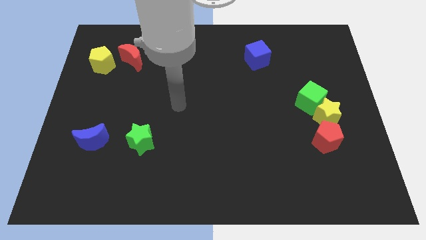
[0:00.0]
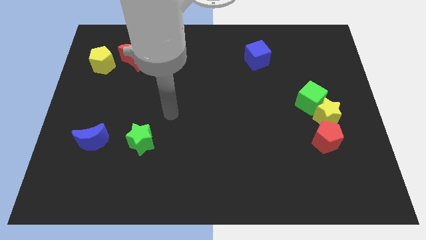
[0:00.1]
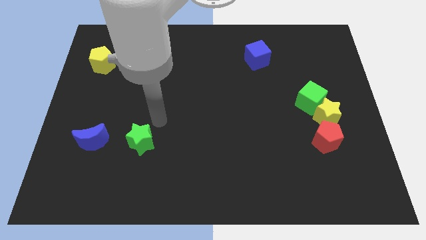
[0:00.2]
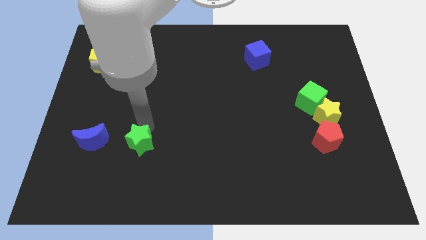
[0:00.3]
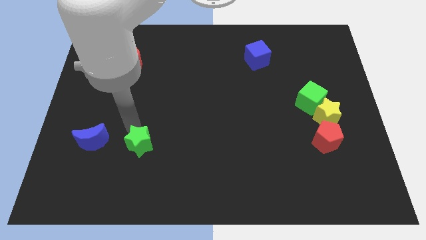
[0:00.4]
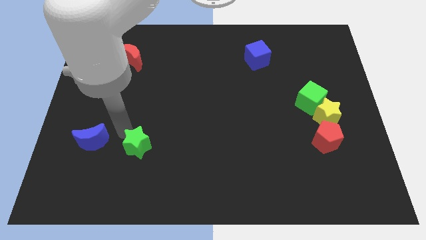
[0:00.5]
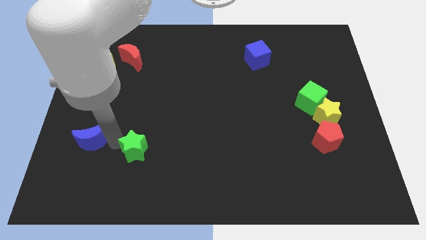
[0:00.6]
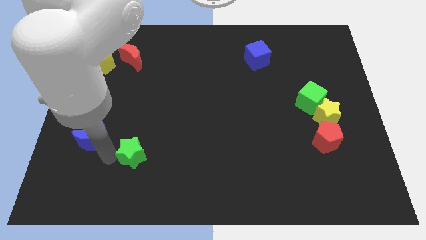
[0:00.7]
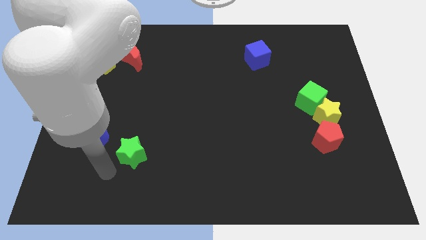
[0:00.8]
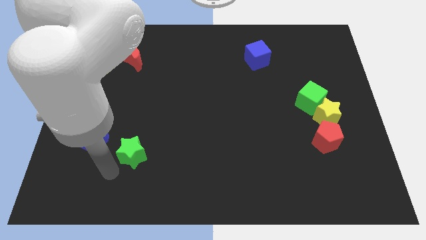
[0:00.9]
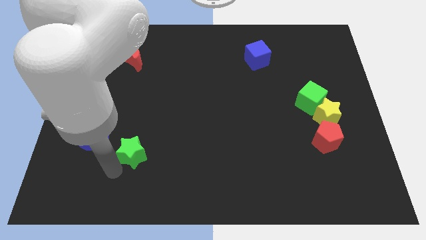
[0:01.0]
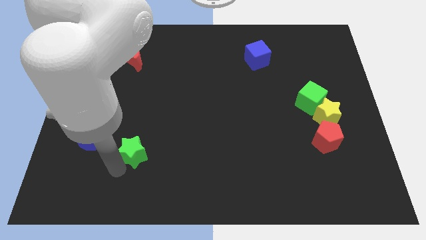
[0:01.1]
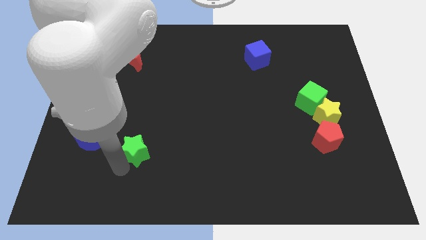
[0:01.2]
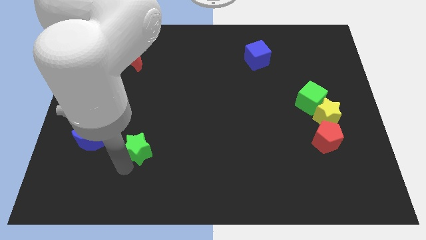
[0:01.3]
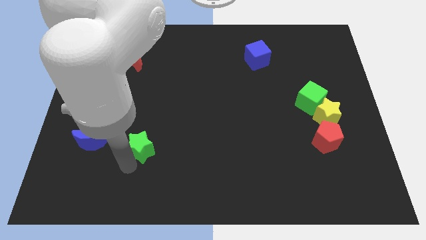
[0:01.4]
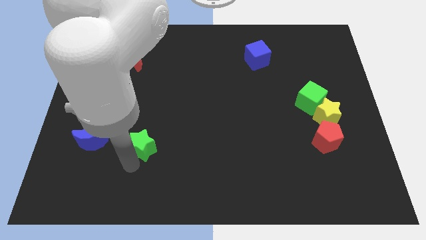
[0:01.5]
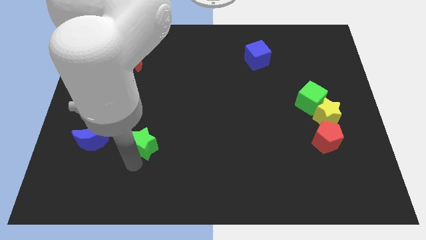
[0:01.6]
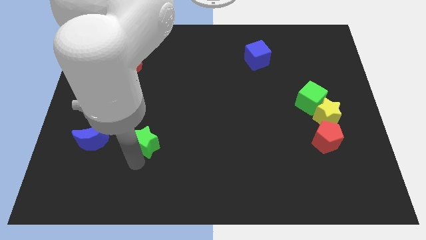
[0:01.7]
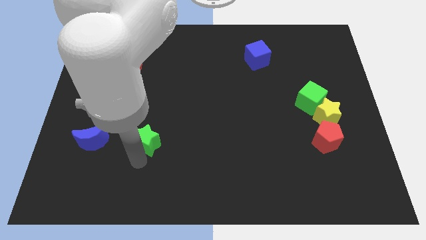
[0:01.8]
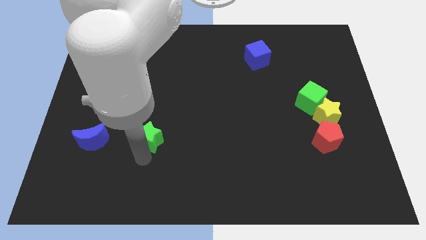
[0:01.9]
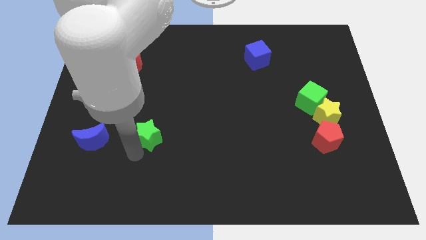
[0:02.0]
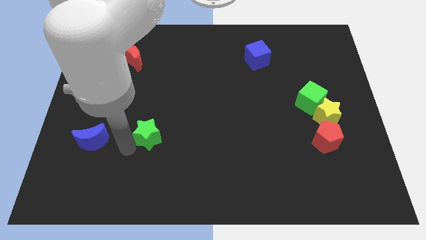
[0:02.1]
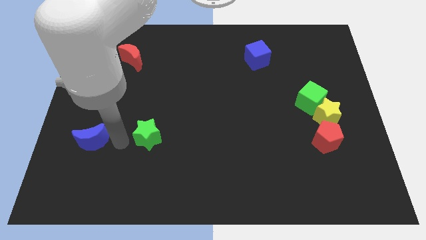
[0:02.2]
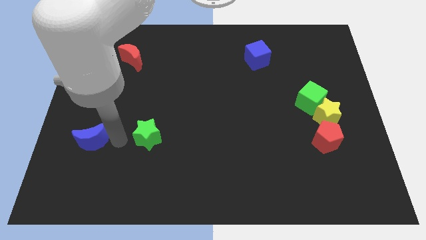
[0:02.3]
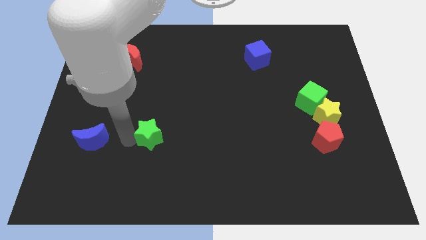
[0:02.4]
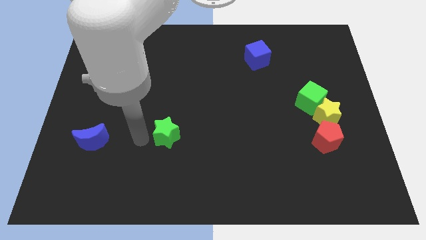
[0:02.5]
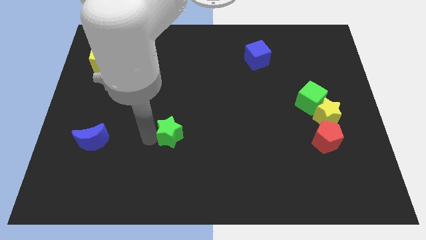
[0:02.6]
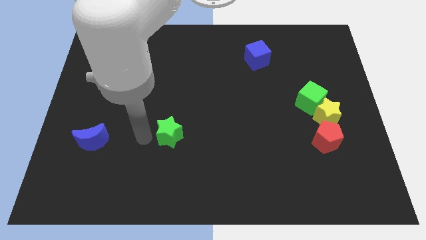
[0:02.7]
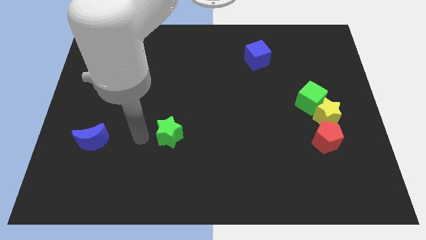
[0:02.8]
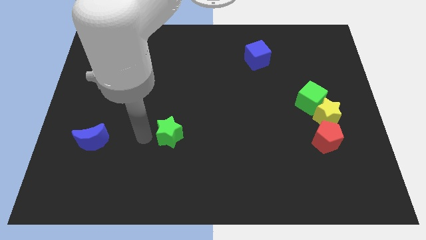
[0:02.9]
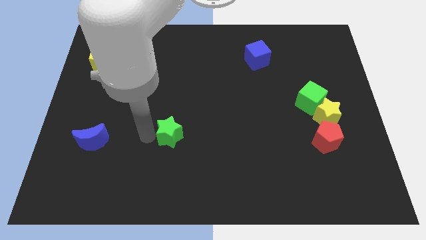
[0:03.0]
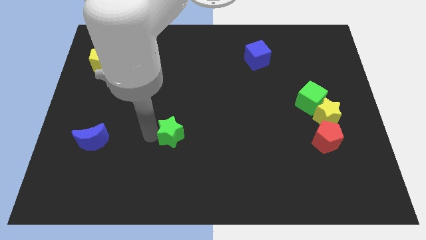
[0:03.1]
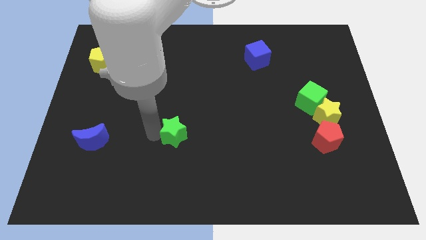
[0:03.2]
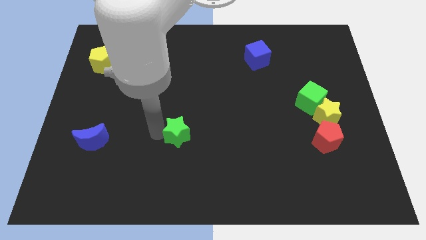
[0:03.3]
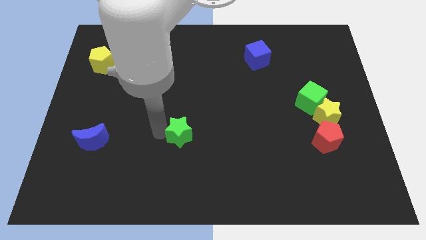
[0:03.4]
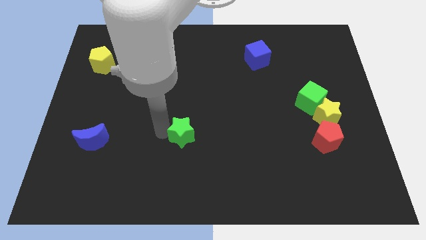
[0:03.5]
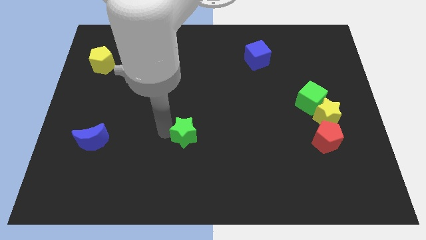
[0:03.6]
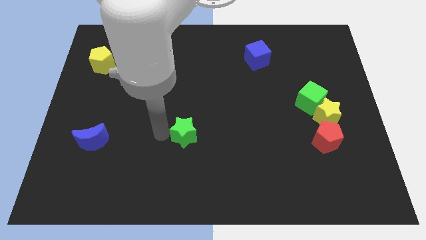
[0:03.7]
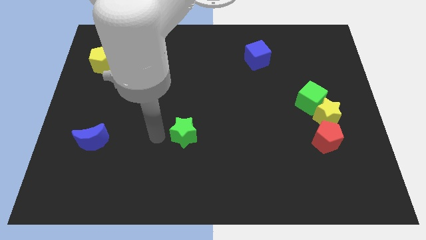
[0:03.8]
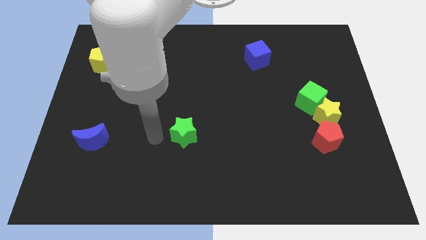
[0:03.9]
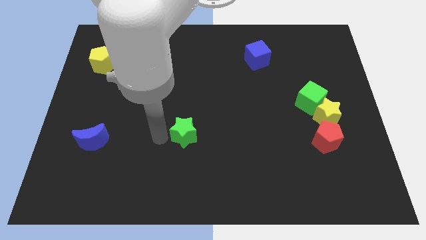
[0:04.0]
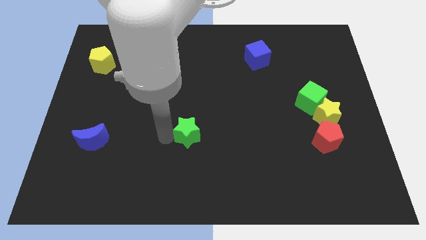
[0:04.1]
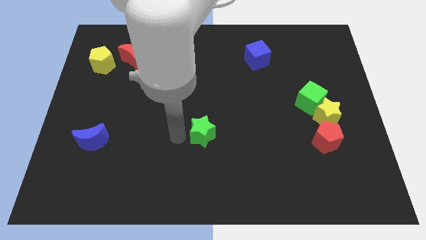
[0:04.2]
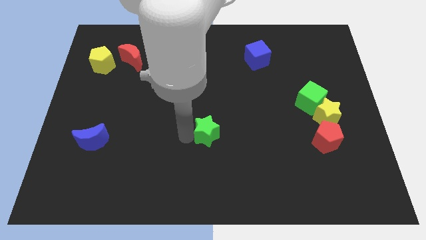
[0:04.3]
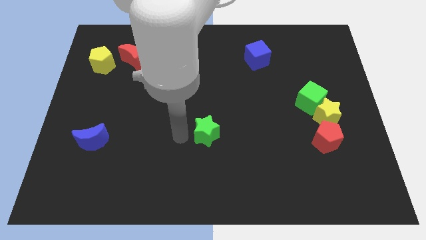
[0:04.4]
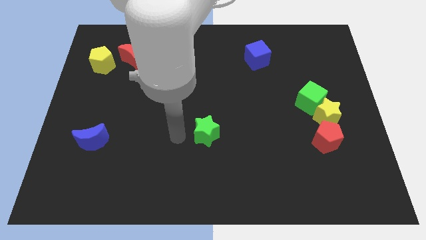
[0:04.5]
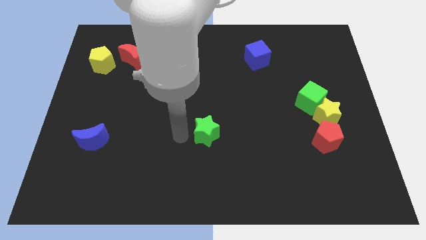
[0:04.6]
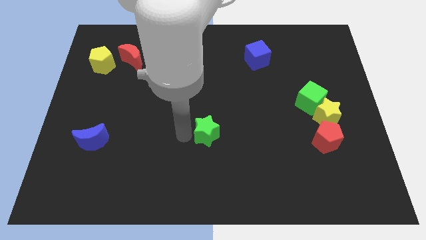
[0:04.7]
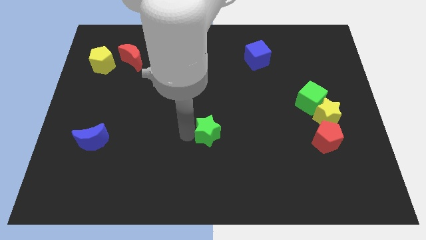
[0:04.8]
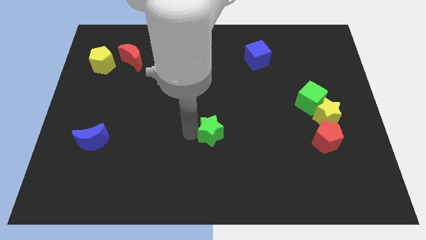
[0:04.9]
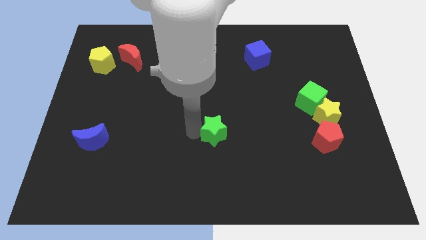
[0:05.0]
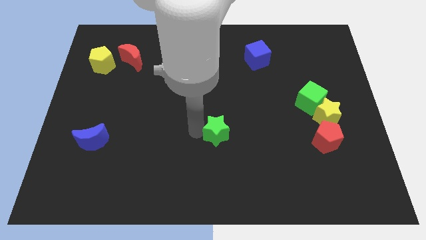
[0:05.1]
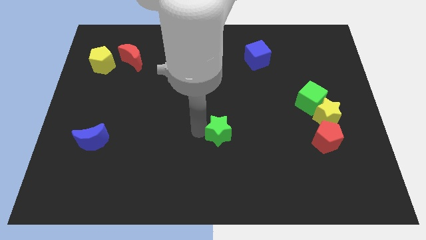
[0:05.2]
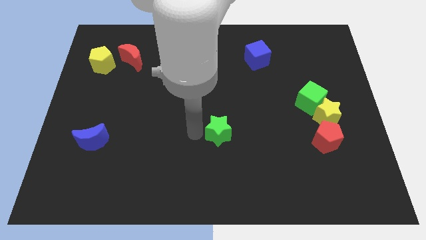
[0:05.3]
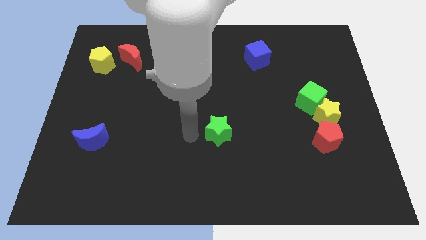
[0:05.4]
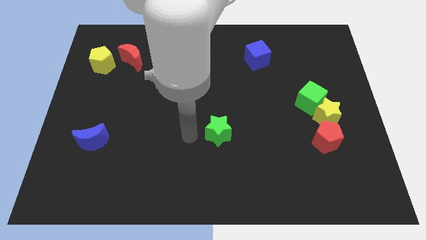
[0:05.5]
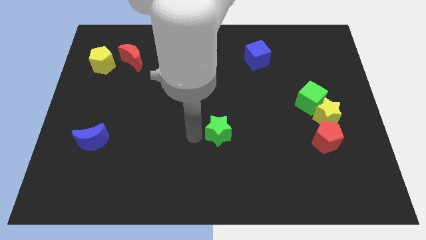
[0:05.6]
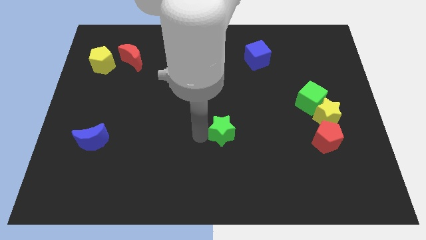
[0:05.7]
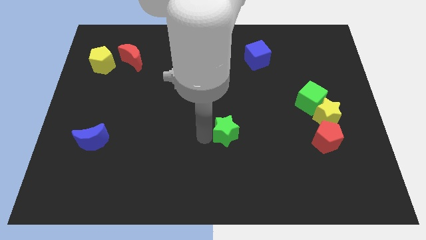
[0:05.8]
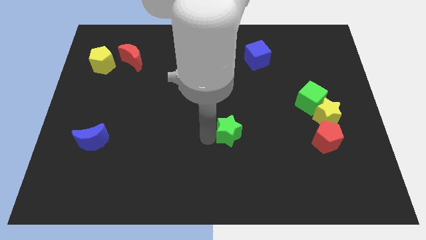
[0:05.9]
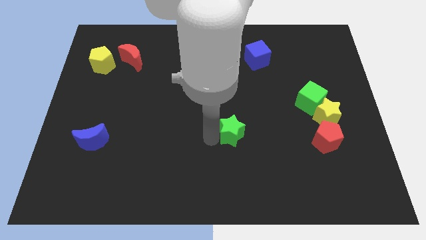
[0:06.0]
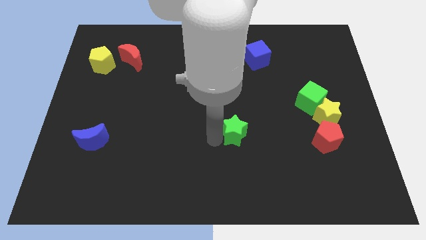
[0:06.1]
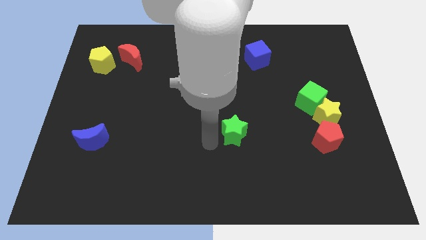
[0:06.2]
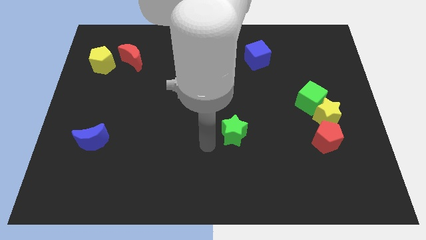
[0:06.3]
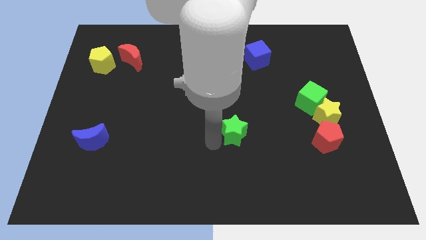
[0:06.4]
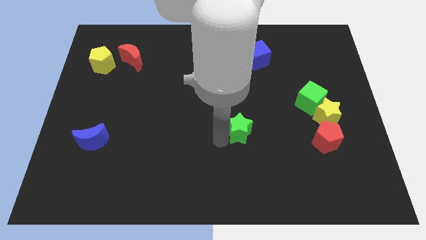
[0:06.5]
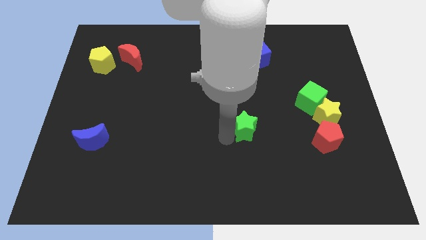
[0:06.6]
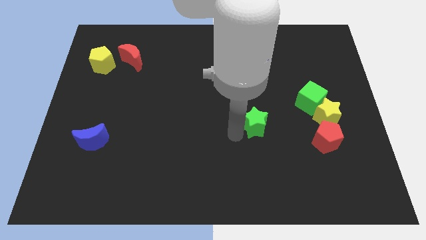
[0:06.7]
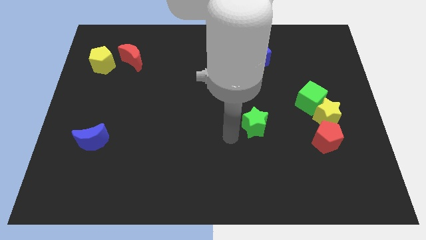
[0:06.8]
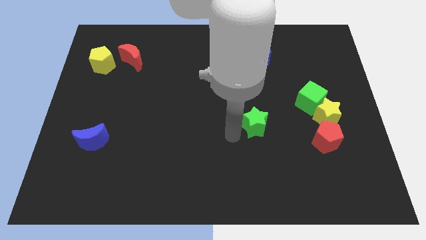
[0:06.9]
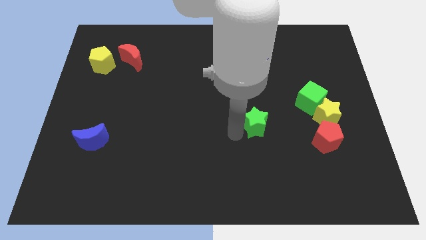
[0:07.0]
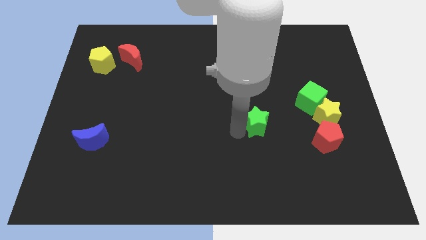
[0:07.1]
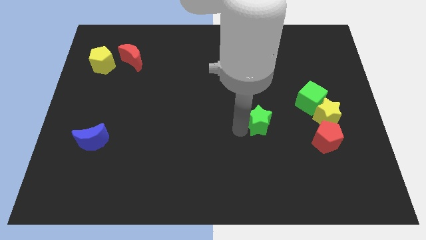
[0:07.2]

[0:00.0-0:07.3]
slide the green star just left of the yellow star
